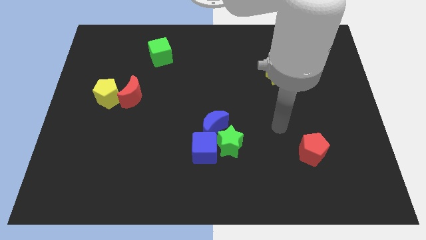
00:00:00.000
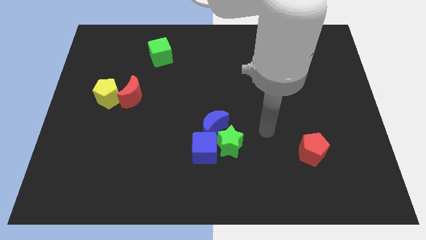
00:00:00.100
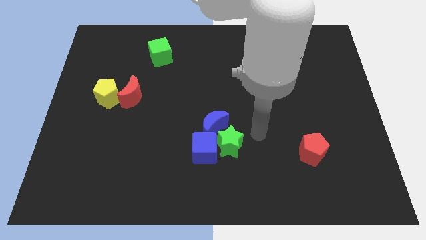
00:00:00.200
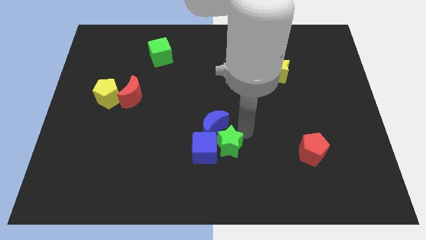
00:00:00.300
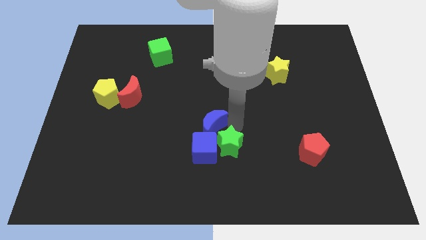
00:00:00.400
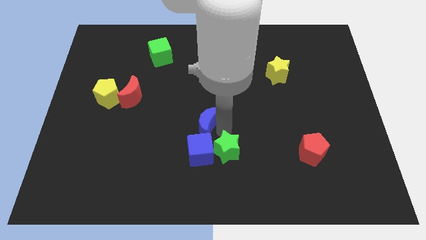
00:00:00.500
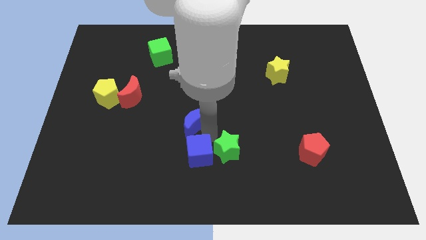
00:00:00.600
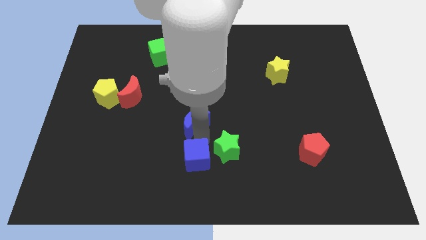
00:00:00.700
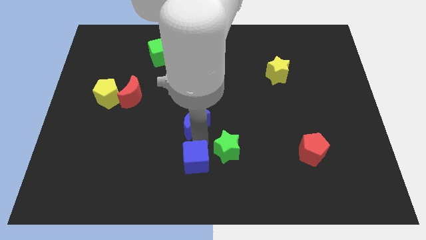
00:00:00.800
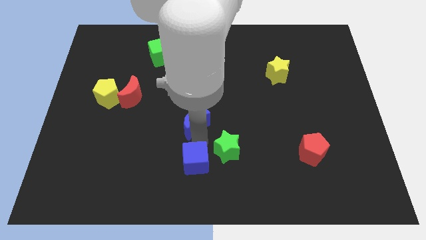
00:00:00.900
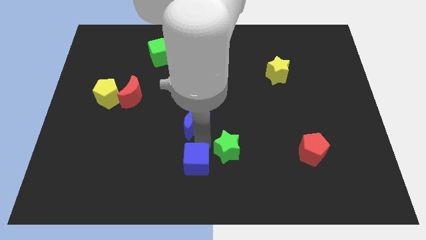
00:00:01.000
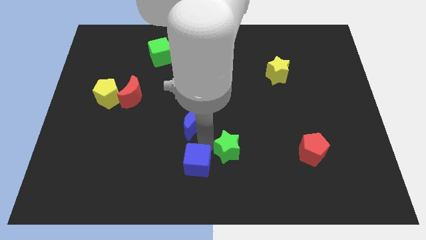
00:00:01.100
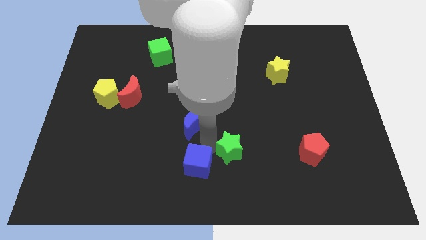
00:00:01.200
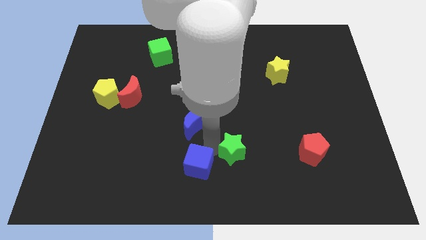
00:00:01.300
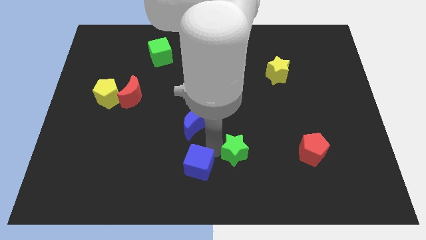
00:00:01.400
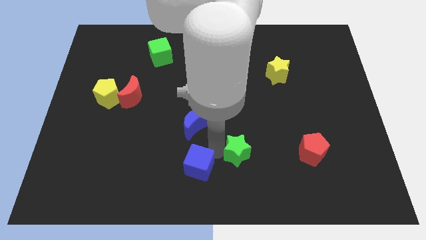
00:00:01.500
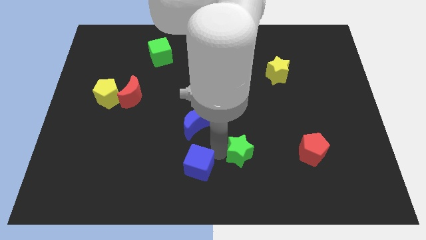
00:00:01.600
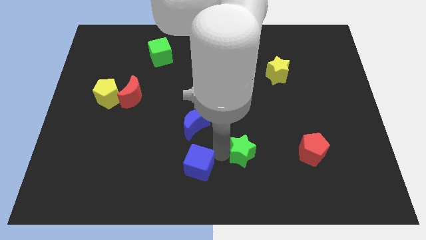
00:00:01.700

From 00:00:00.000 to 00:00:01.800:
move the green star away from the blue cube and blue moon

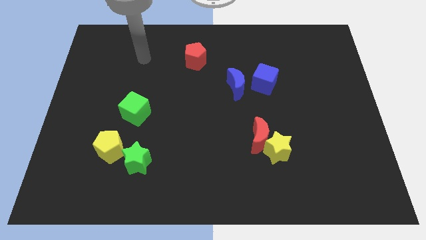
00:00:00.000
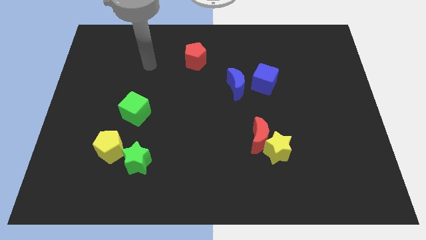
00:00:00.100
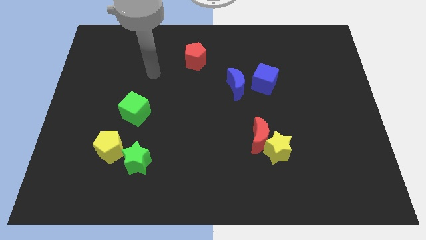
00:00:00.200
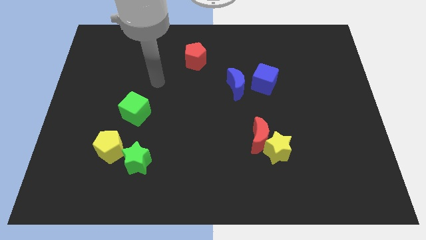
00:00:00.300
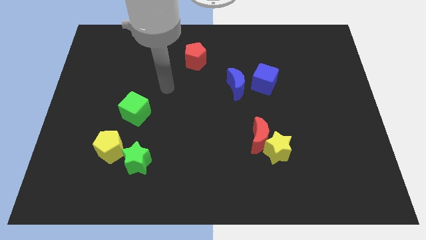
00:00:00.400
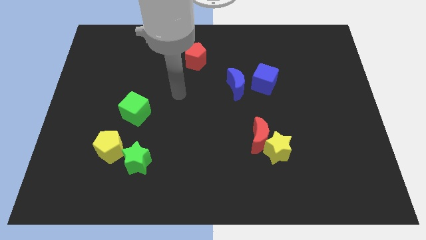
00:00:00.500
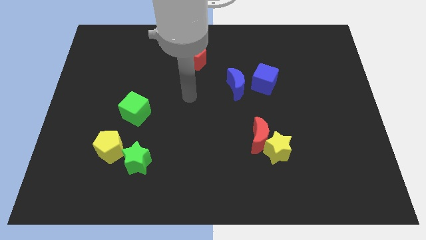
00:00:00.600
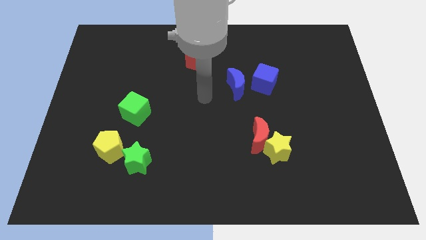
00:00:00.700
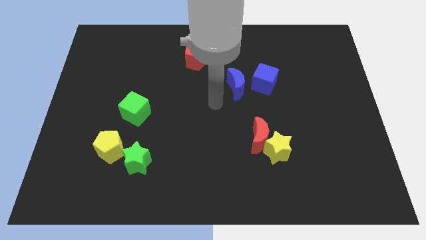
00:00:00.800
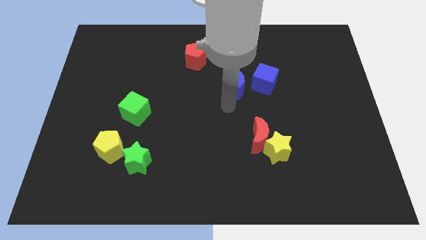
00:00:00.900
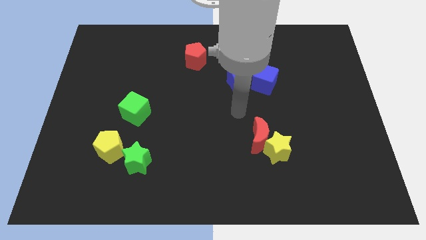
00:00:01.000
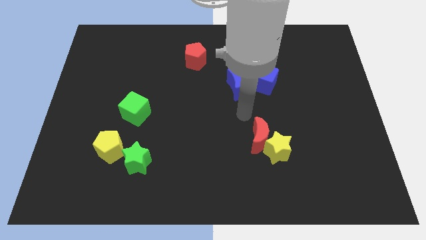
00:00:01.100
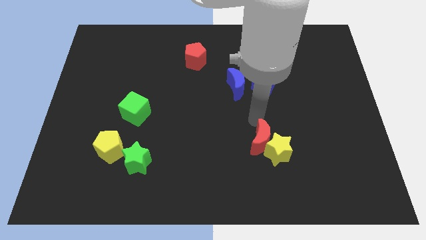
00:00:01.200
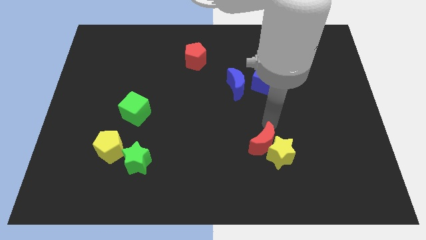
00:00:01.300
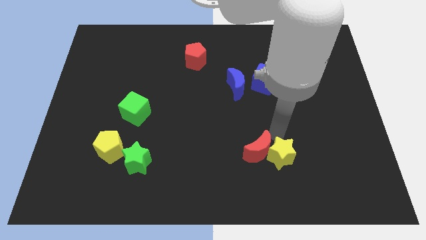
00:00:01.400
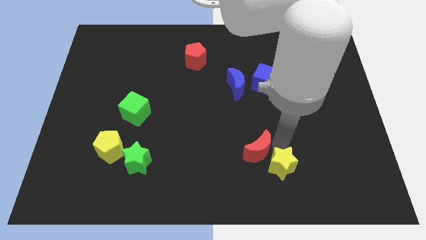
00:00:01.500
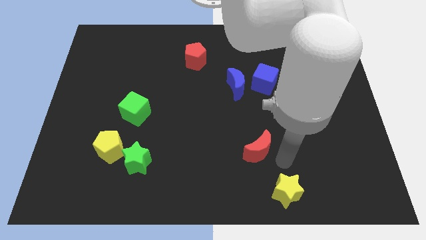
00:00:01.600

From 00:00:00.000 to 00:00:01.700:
move the red moon away from the yellow star

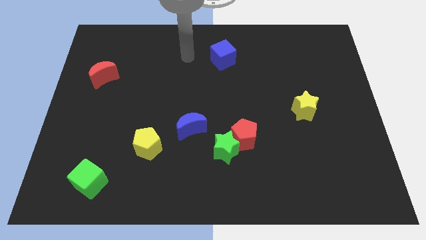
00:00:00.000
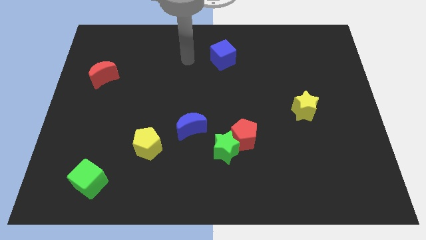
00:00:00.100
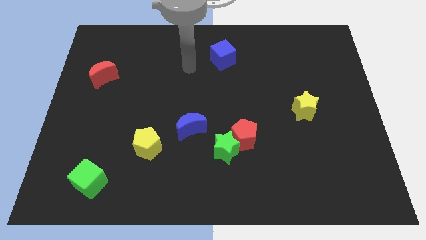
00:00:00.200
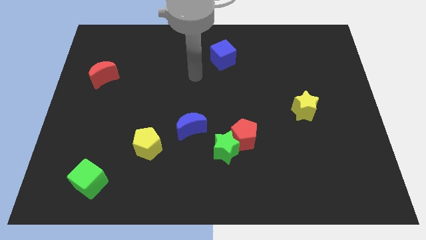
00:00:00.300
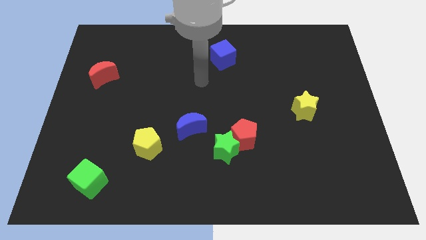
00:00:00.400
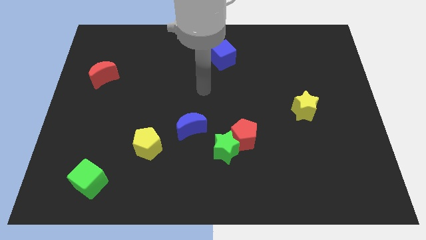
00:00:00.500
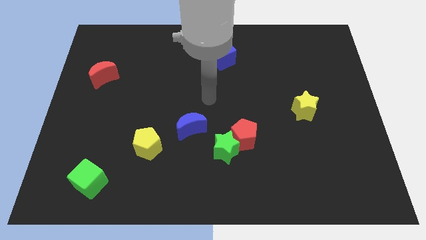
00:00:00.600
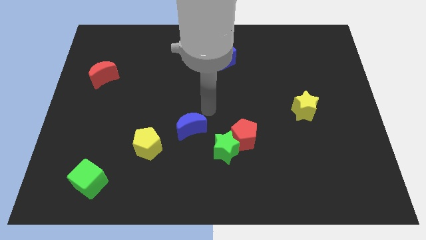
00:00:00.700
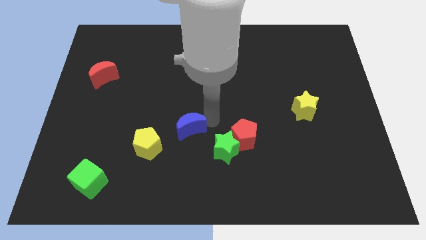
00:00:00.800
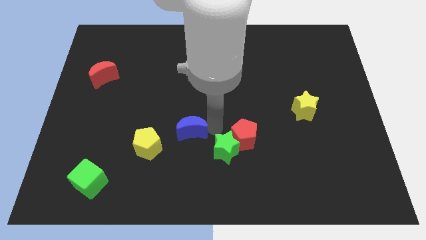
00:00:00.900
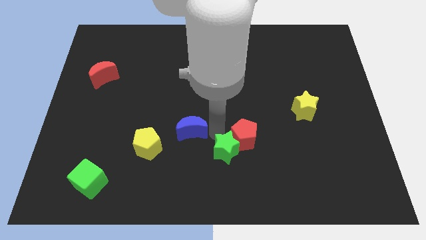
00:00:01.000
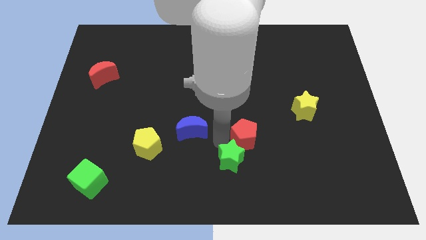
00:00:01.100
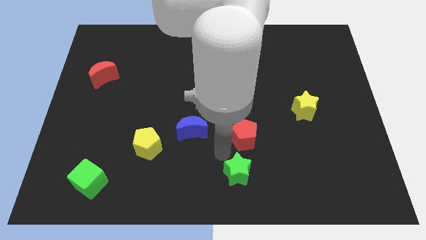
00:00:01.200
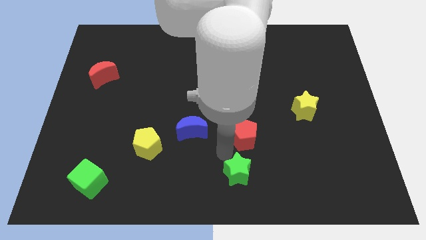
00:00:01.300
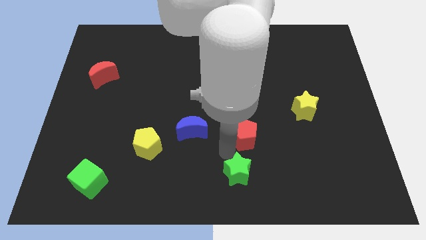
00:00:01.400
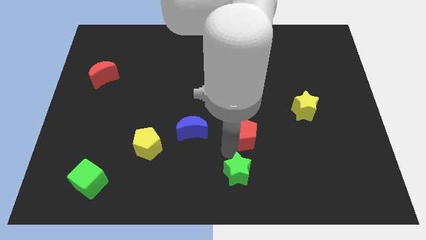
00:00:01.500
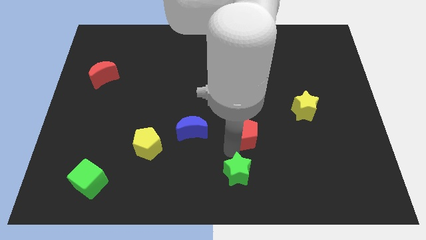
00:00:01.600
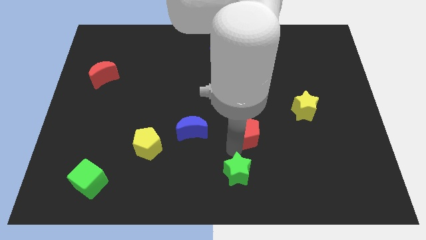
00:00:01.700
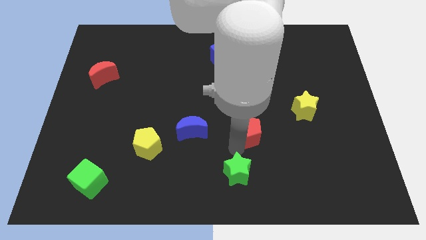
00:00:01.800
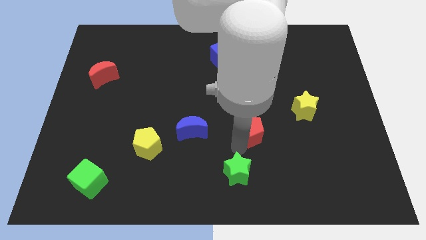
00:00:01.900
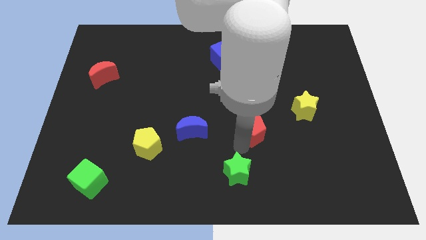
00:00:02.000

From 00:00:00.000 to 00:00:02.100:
pull the red pentagon apart from the green star

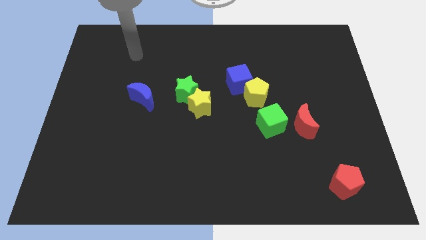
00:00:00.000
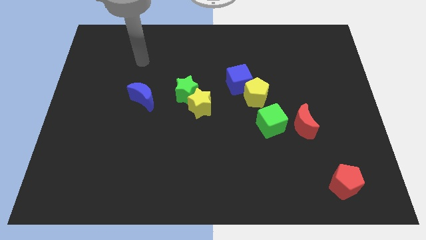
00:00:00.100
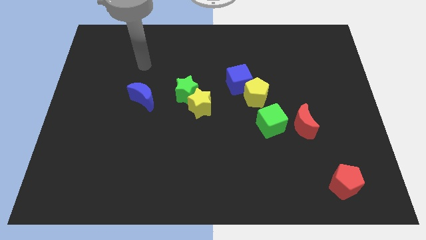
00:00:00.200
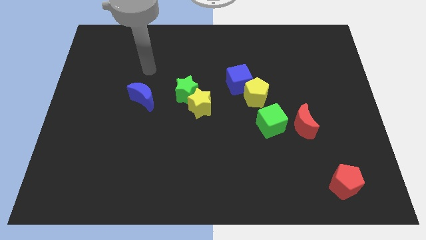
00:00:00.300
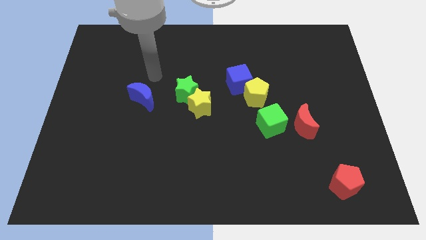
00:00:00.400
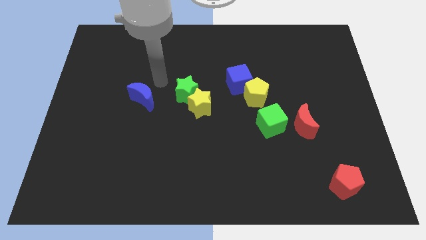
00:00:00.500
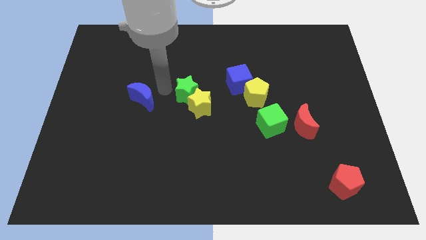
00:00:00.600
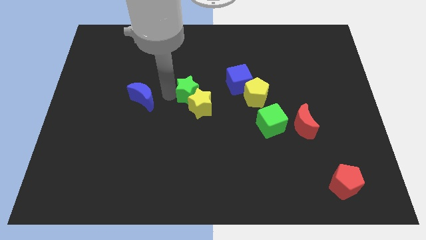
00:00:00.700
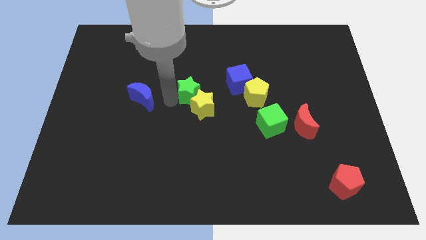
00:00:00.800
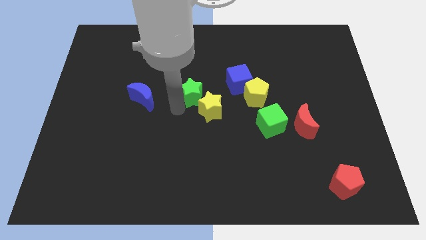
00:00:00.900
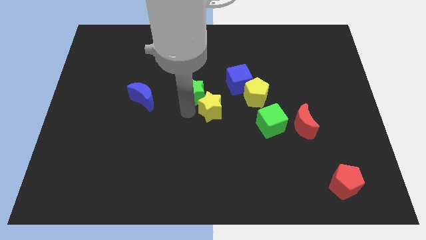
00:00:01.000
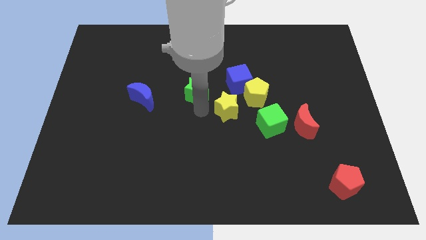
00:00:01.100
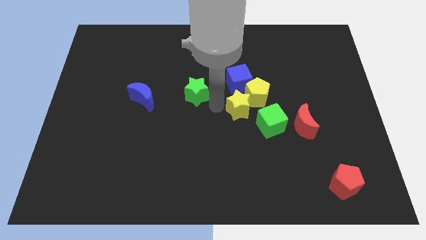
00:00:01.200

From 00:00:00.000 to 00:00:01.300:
separate the green star from the yellow star

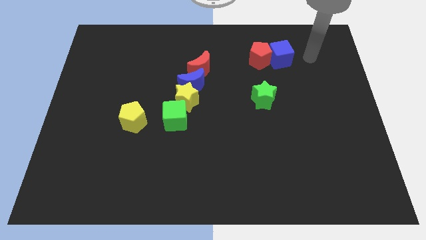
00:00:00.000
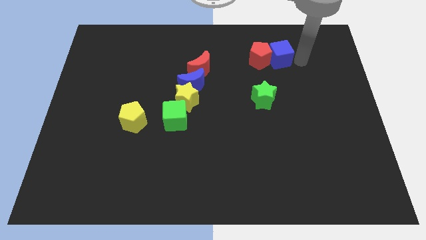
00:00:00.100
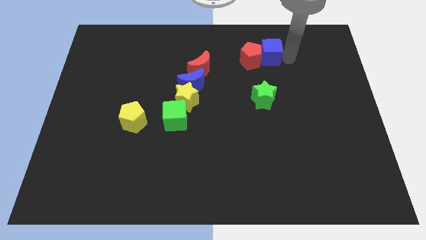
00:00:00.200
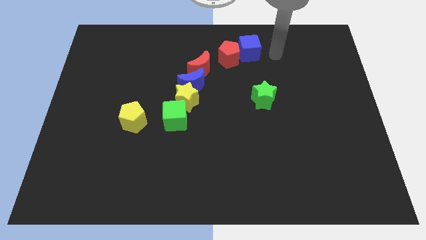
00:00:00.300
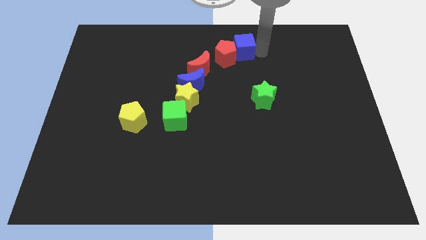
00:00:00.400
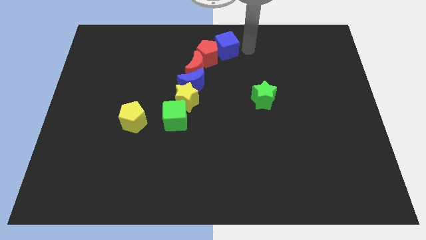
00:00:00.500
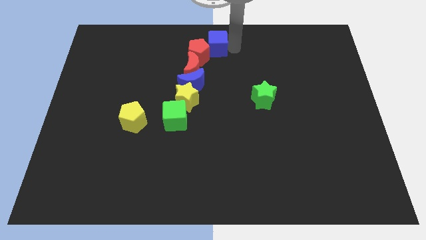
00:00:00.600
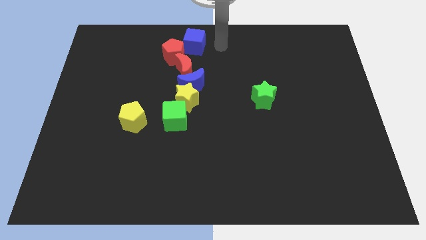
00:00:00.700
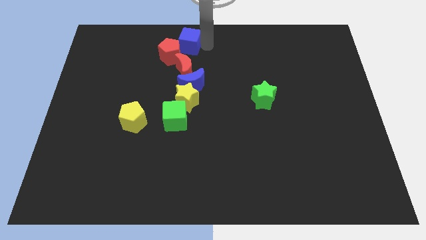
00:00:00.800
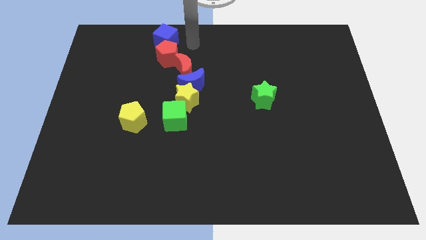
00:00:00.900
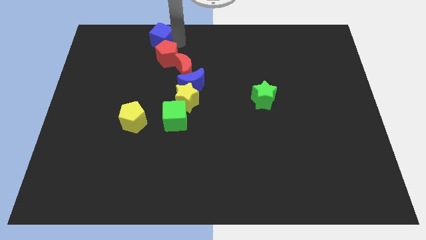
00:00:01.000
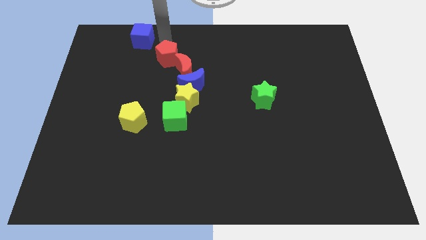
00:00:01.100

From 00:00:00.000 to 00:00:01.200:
separate the red pentagon from the blue cube

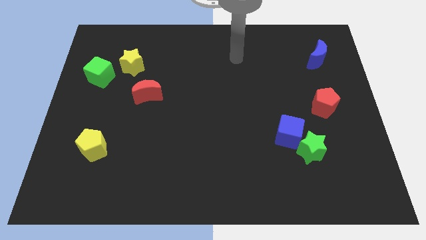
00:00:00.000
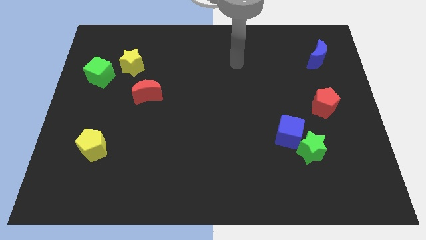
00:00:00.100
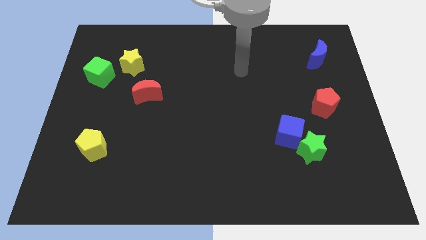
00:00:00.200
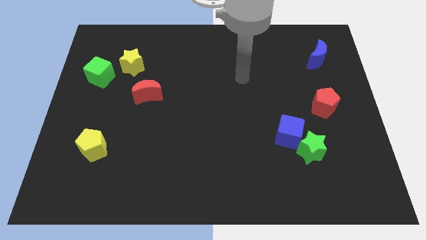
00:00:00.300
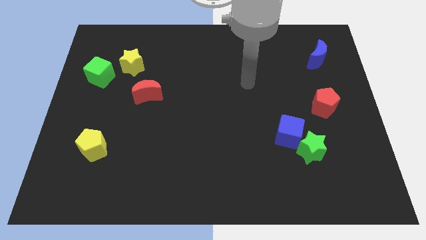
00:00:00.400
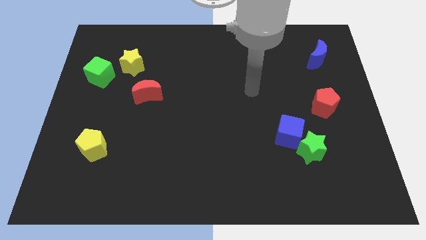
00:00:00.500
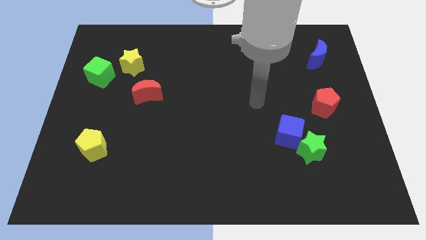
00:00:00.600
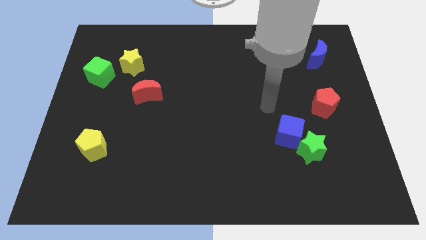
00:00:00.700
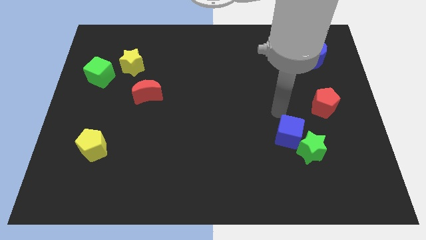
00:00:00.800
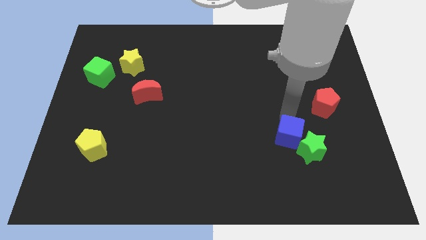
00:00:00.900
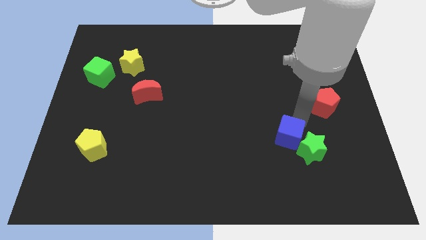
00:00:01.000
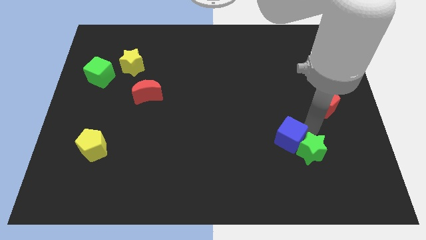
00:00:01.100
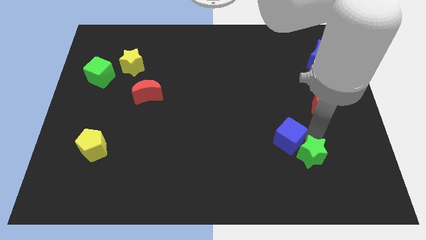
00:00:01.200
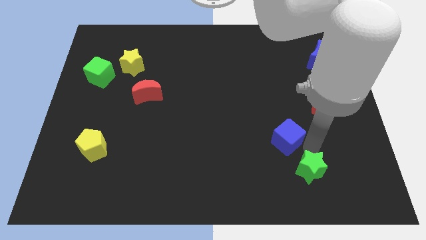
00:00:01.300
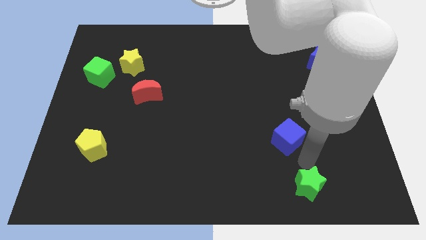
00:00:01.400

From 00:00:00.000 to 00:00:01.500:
pull the blue cube apart from the green star
